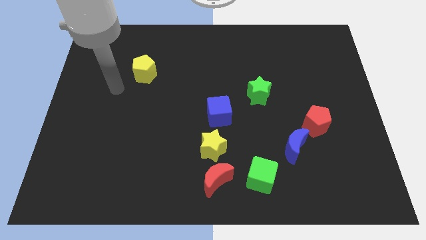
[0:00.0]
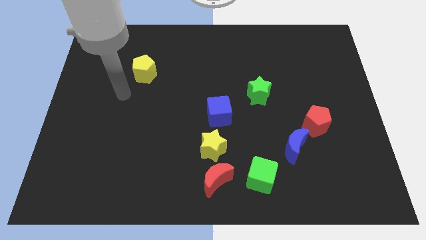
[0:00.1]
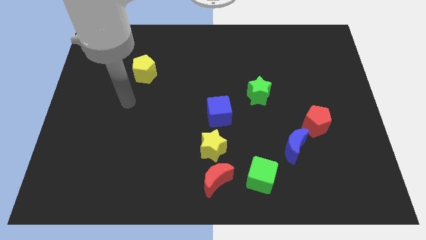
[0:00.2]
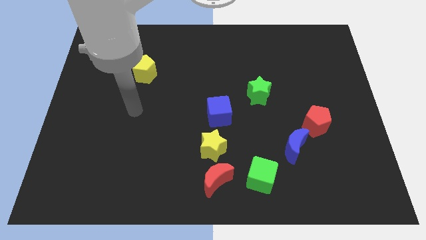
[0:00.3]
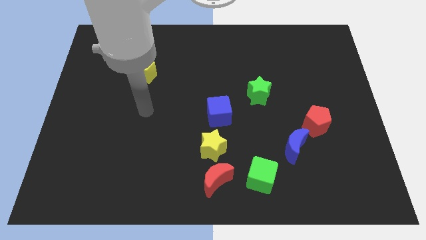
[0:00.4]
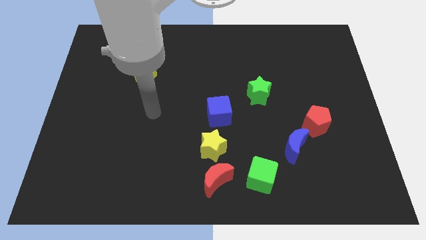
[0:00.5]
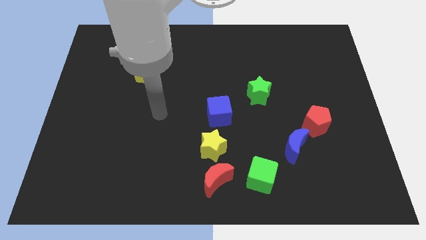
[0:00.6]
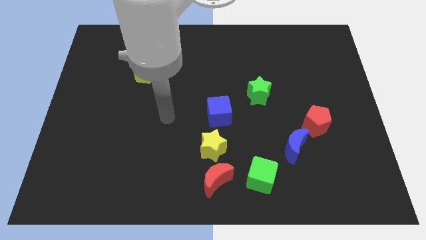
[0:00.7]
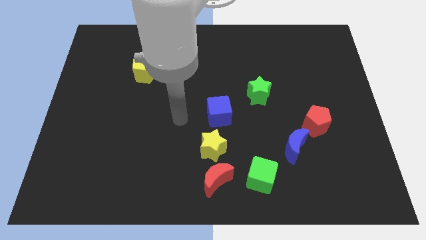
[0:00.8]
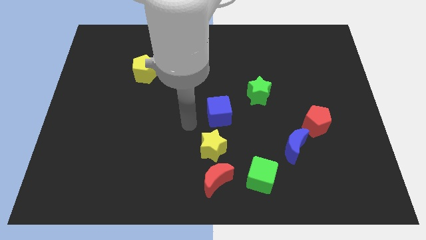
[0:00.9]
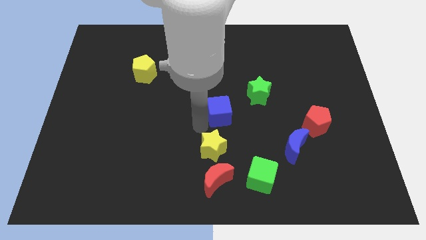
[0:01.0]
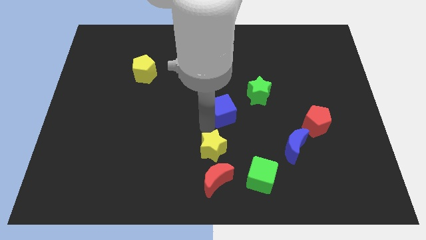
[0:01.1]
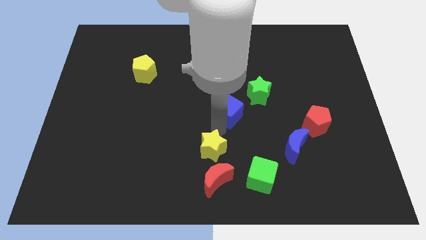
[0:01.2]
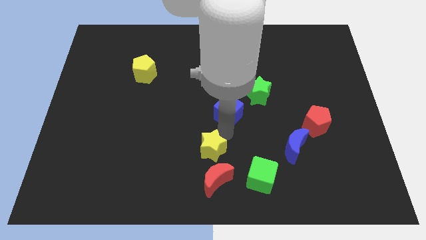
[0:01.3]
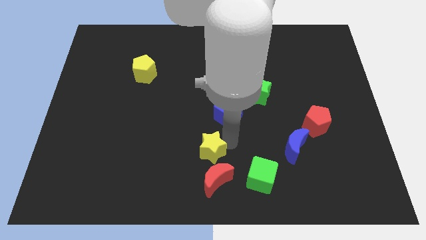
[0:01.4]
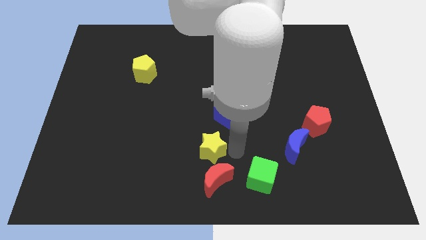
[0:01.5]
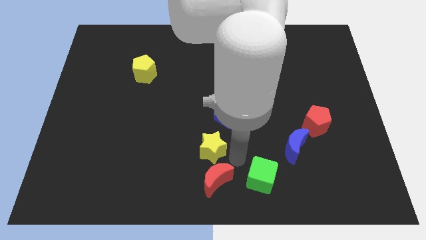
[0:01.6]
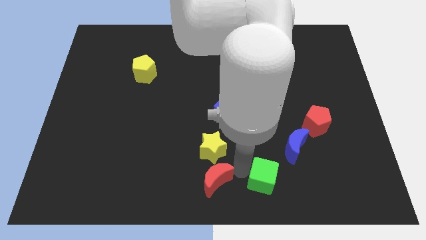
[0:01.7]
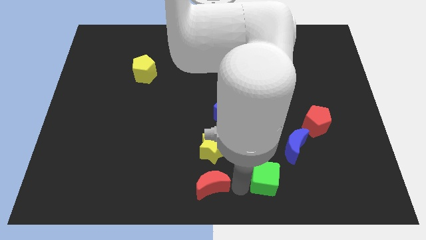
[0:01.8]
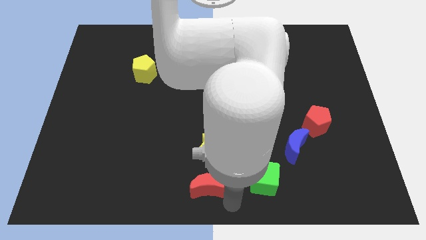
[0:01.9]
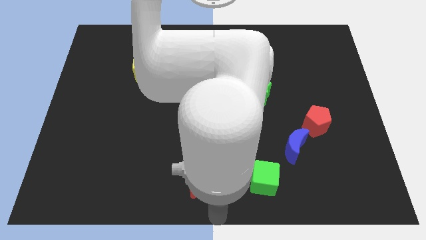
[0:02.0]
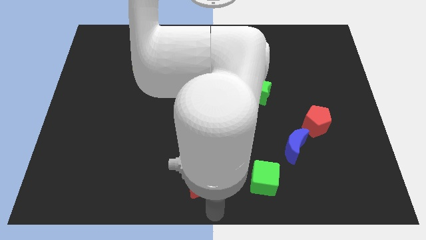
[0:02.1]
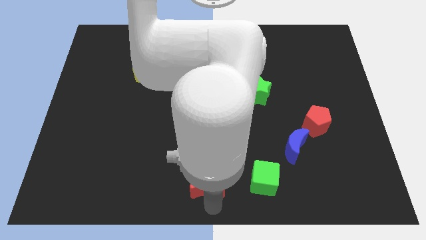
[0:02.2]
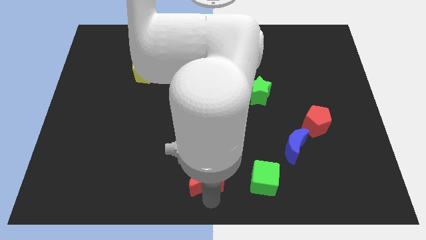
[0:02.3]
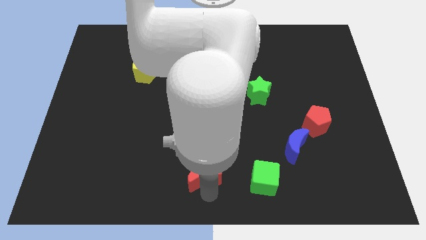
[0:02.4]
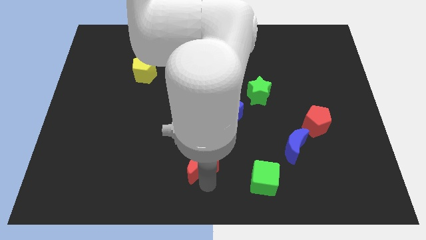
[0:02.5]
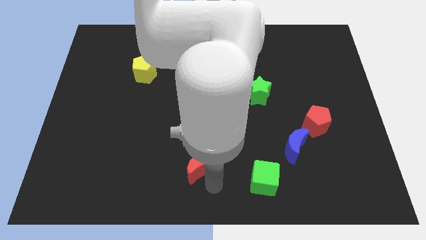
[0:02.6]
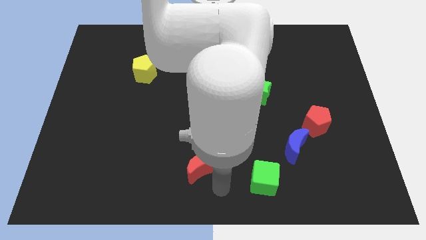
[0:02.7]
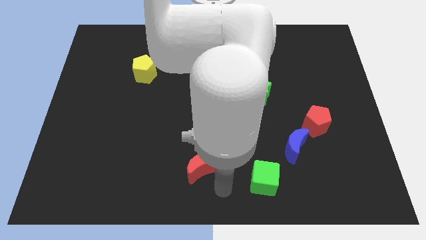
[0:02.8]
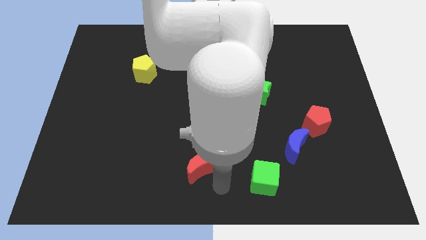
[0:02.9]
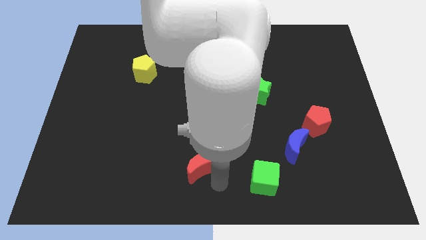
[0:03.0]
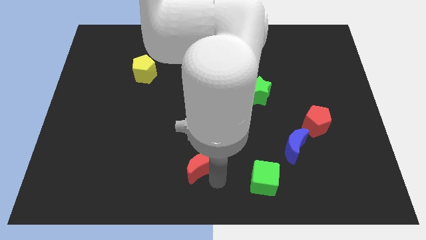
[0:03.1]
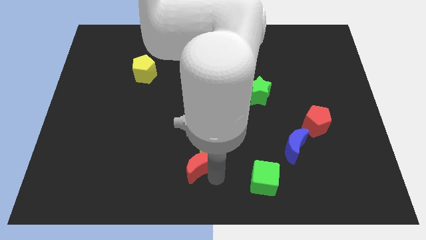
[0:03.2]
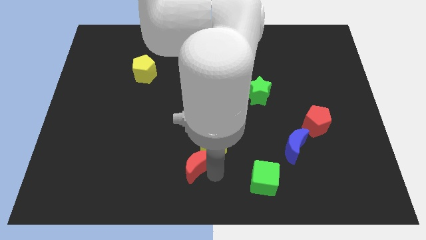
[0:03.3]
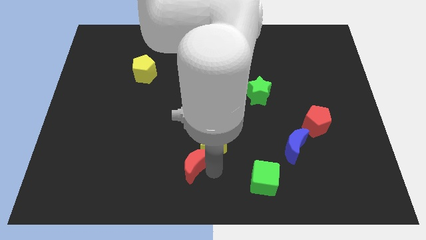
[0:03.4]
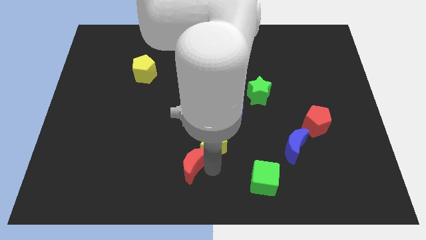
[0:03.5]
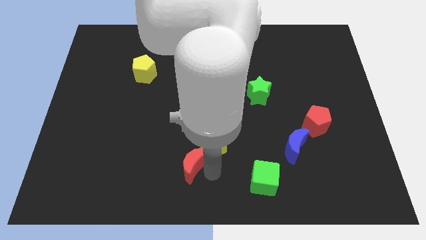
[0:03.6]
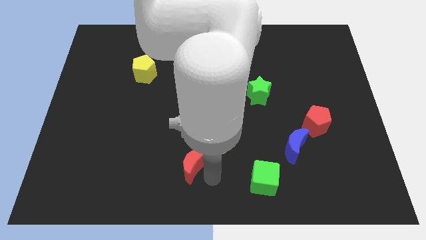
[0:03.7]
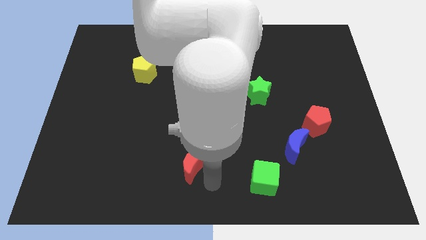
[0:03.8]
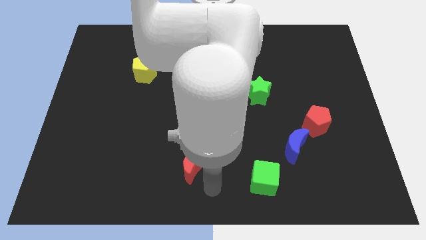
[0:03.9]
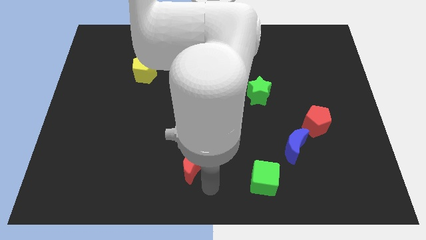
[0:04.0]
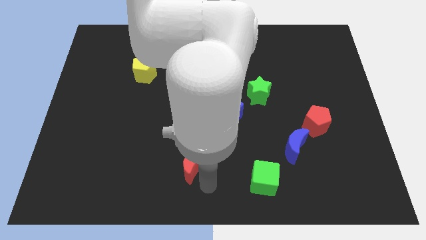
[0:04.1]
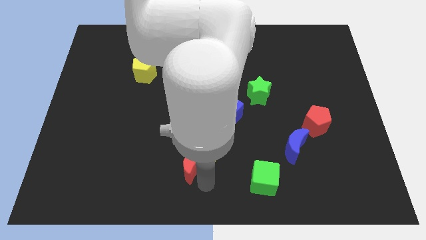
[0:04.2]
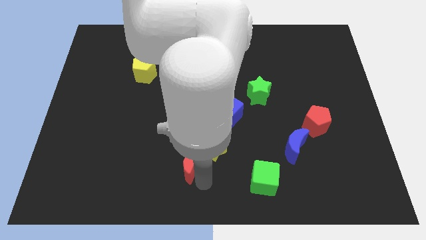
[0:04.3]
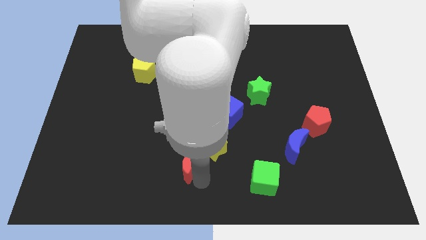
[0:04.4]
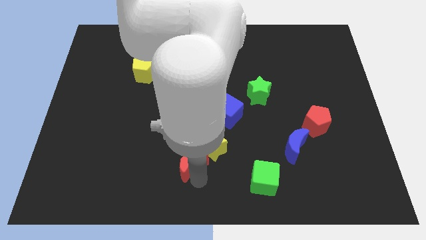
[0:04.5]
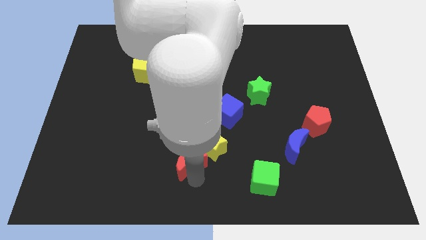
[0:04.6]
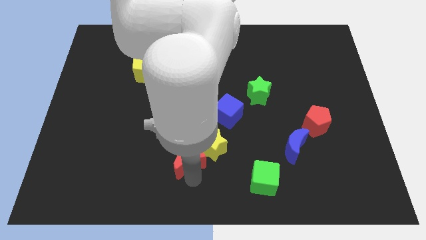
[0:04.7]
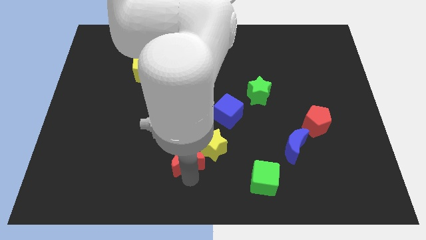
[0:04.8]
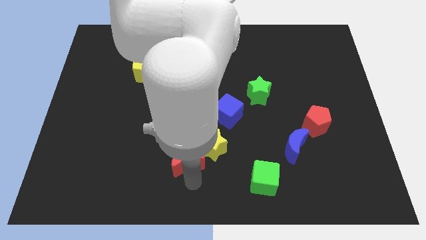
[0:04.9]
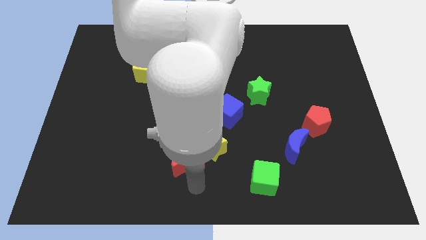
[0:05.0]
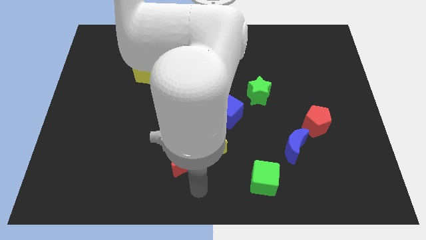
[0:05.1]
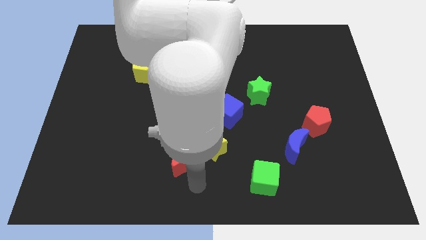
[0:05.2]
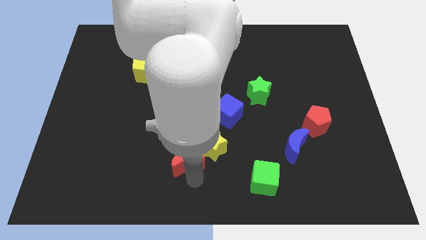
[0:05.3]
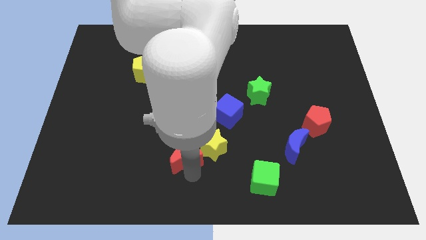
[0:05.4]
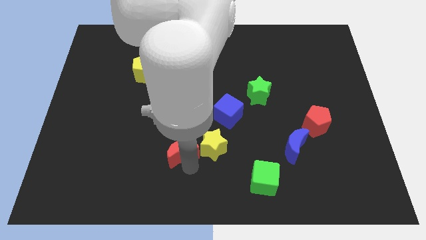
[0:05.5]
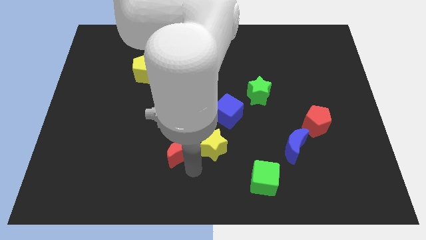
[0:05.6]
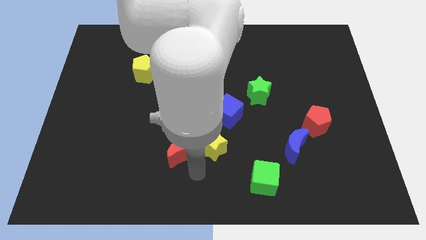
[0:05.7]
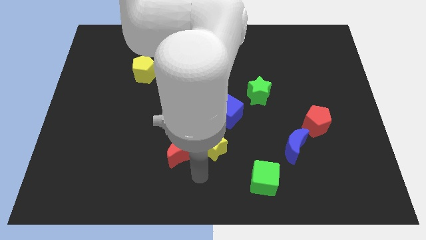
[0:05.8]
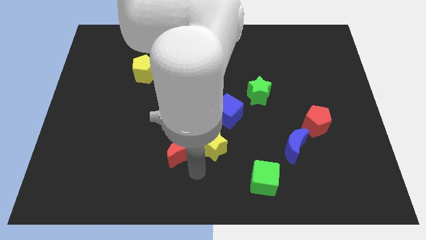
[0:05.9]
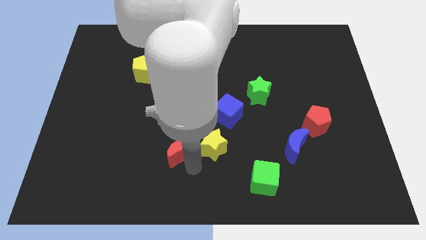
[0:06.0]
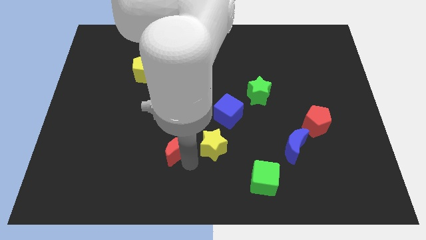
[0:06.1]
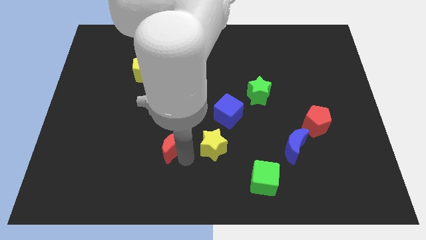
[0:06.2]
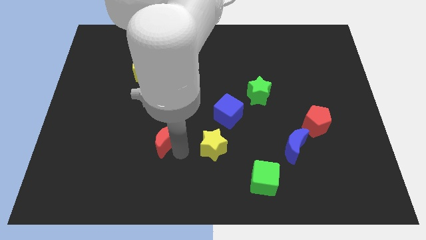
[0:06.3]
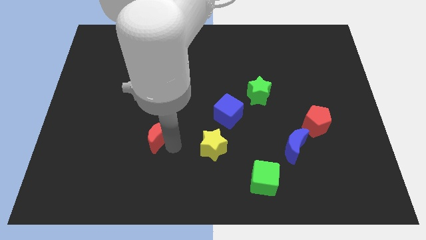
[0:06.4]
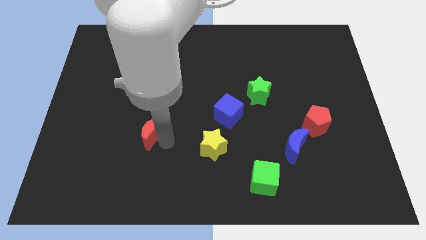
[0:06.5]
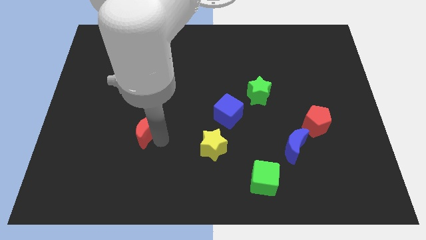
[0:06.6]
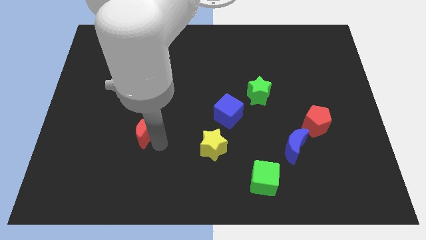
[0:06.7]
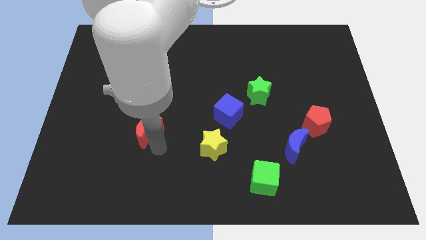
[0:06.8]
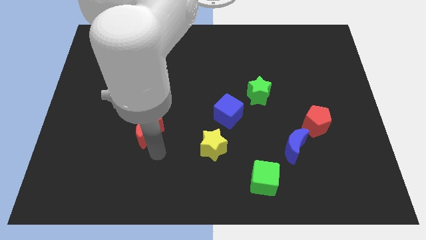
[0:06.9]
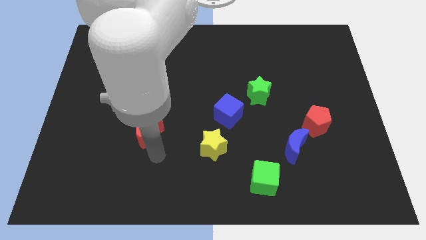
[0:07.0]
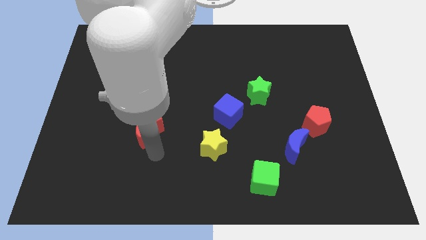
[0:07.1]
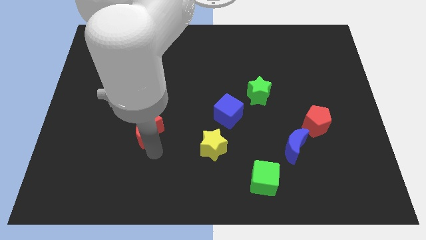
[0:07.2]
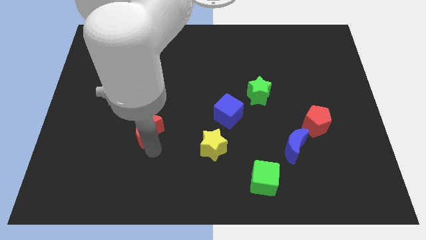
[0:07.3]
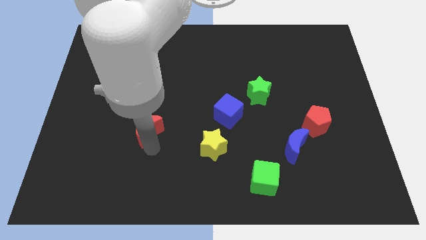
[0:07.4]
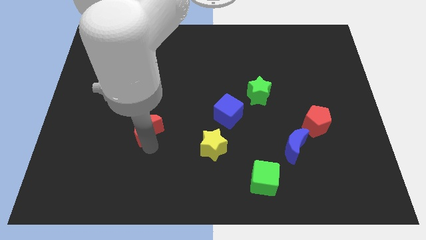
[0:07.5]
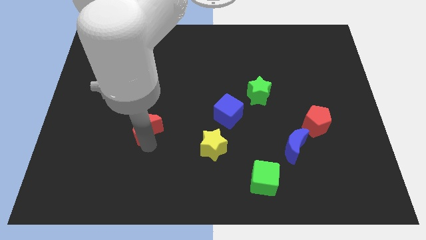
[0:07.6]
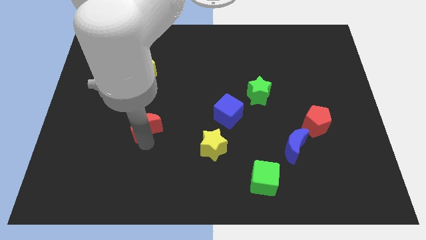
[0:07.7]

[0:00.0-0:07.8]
slide the red moon upwards and then to the left

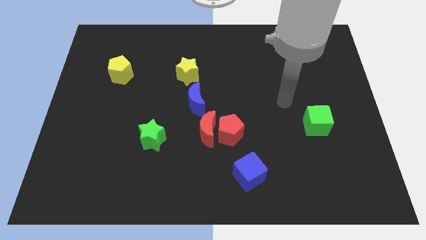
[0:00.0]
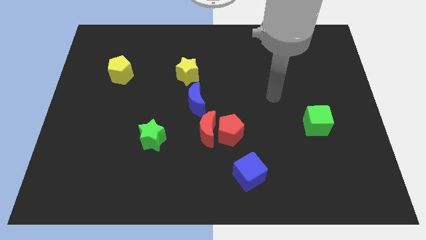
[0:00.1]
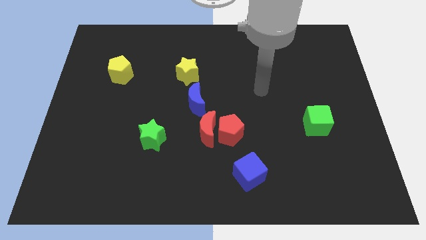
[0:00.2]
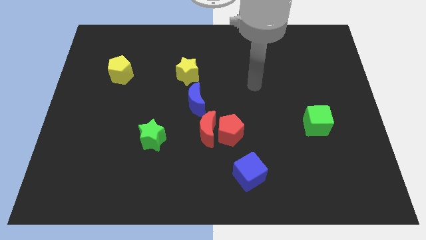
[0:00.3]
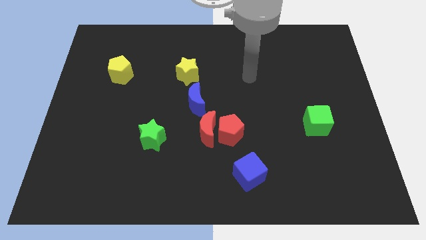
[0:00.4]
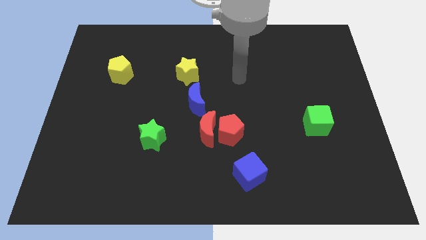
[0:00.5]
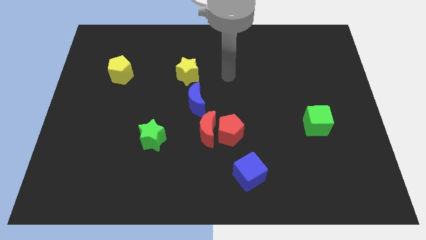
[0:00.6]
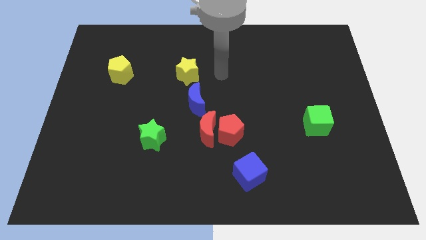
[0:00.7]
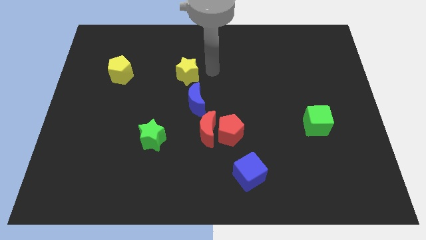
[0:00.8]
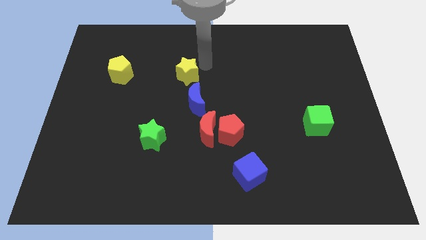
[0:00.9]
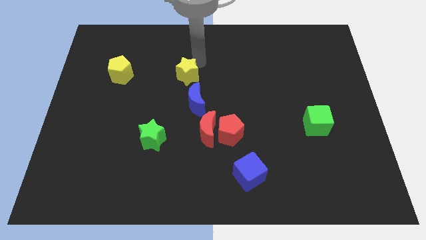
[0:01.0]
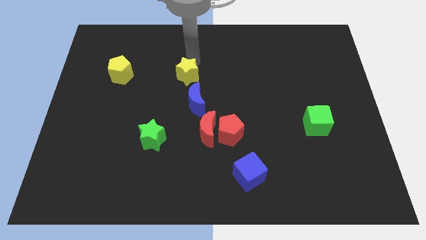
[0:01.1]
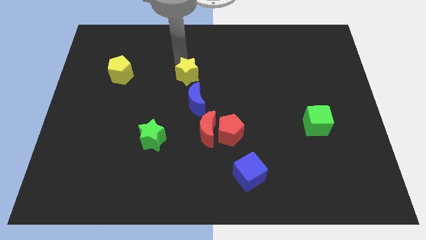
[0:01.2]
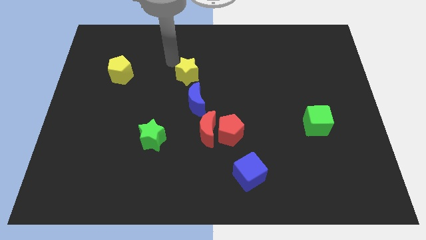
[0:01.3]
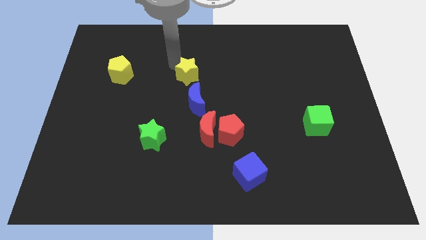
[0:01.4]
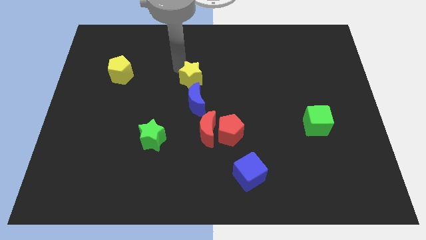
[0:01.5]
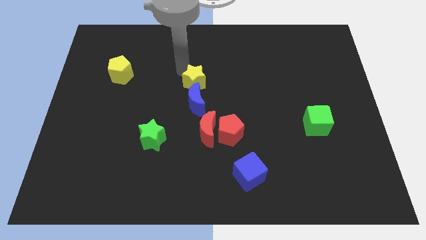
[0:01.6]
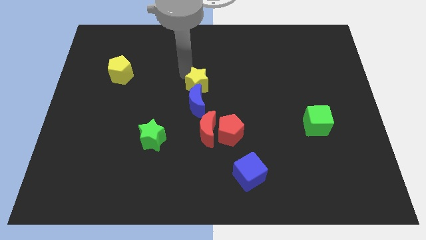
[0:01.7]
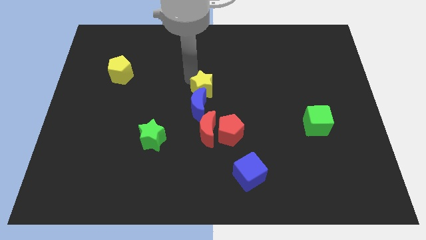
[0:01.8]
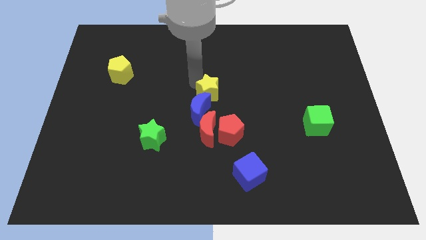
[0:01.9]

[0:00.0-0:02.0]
slightly push the yellow star diagonally downwards and right
